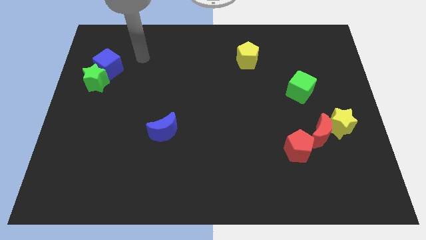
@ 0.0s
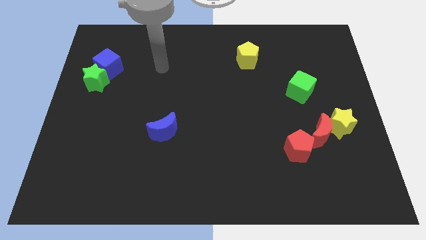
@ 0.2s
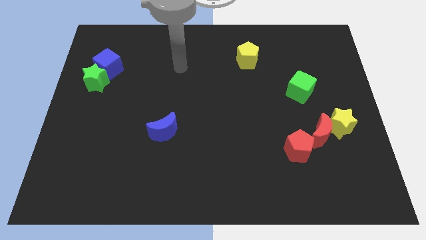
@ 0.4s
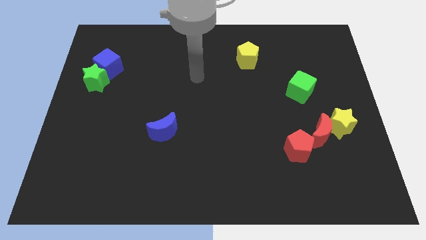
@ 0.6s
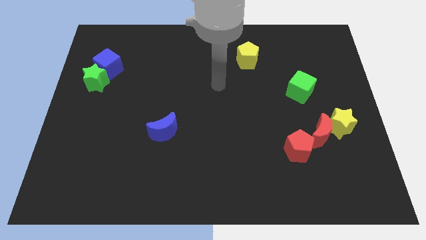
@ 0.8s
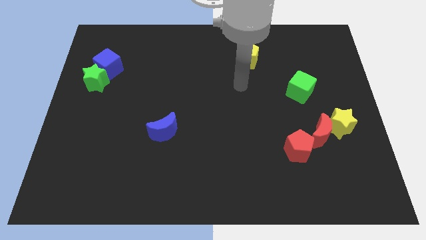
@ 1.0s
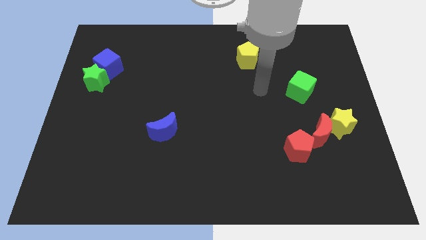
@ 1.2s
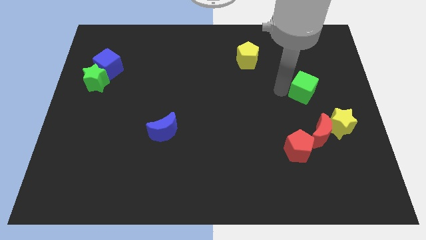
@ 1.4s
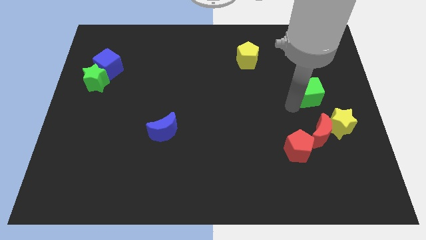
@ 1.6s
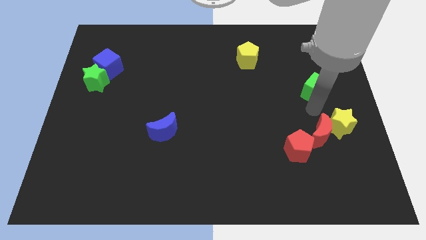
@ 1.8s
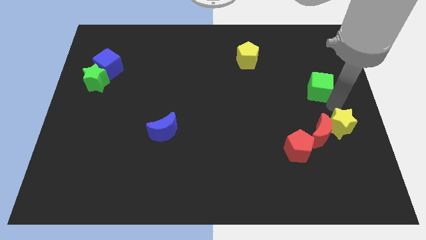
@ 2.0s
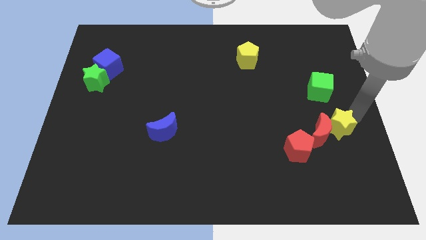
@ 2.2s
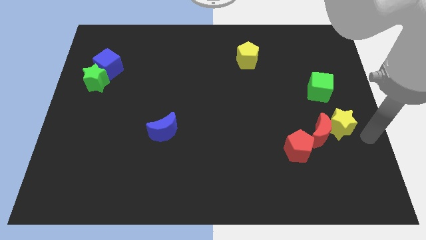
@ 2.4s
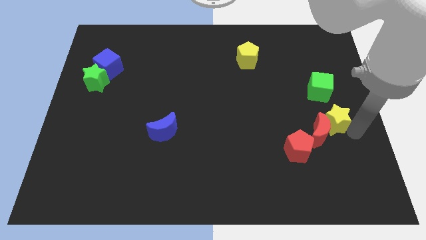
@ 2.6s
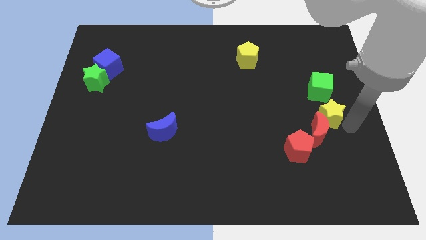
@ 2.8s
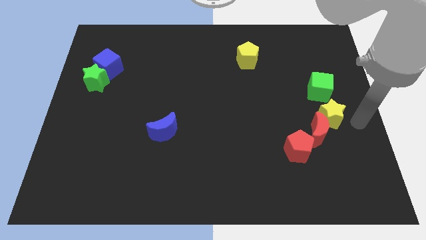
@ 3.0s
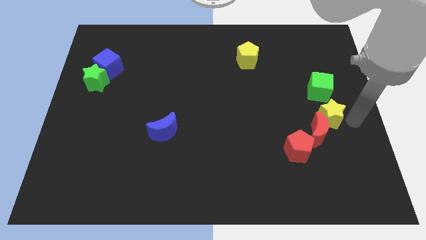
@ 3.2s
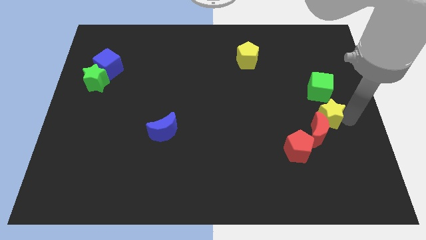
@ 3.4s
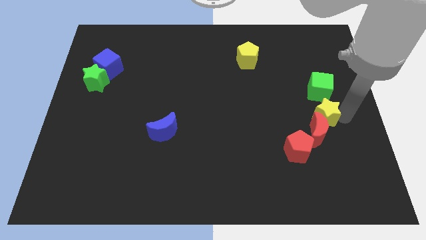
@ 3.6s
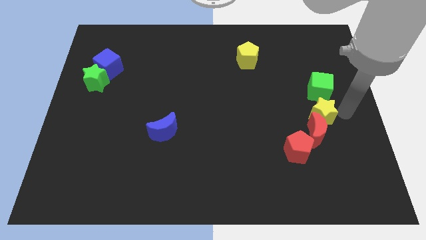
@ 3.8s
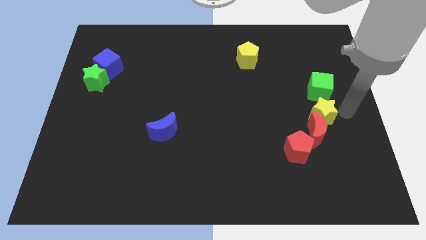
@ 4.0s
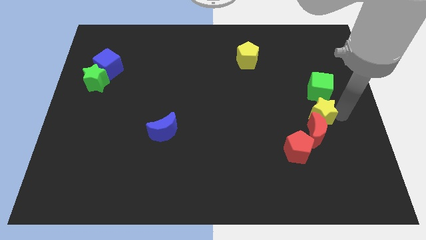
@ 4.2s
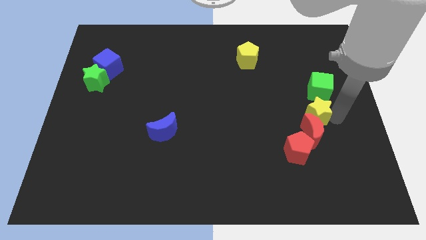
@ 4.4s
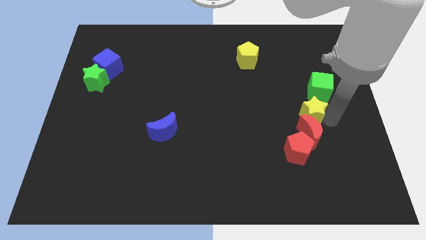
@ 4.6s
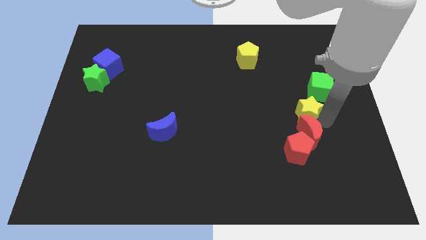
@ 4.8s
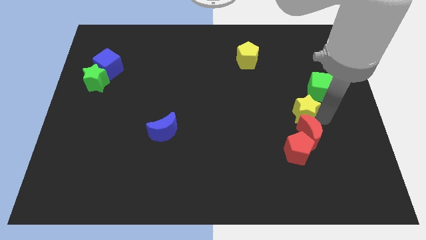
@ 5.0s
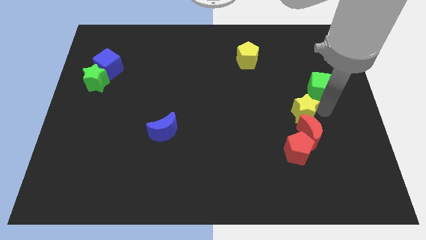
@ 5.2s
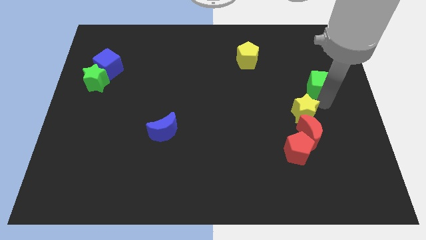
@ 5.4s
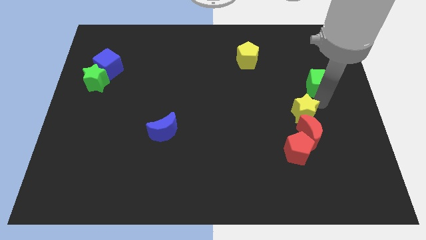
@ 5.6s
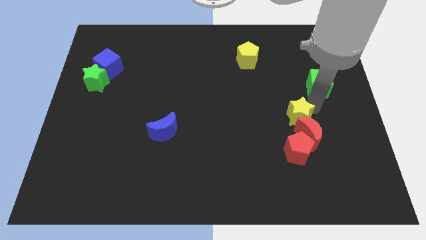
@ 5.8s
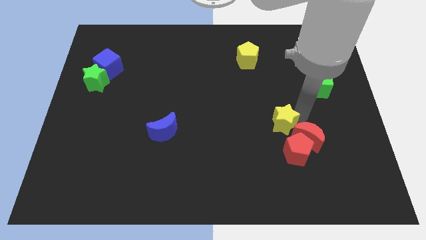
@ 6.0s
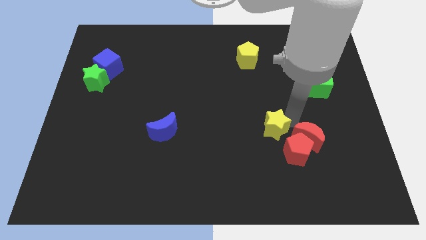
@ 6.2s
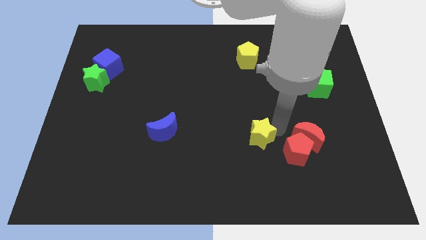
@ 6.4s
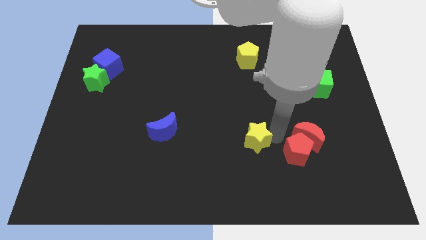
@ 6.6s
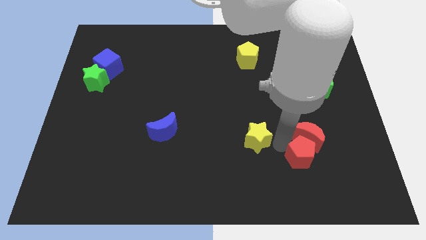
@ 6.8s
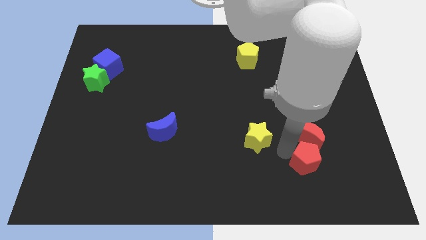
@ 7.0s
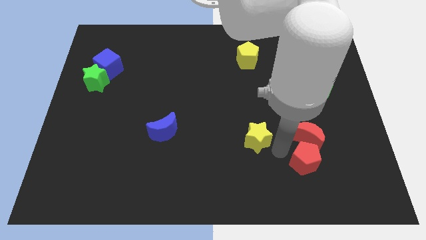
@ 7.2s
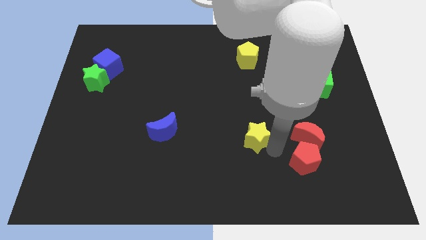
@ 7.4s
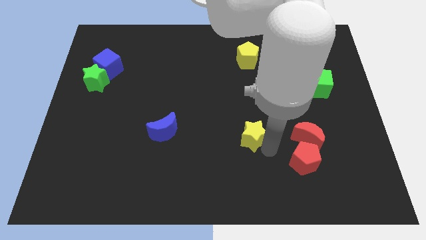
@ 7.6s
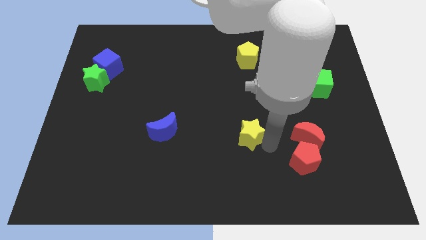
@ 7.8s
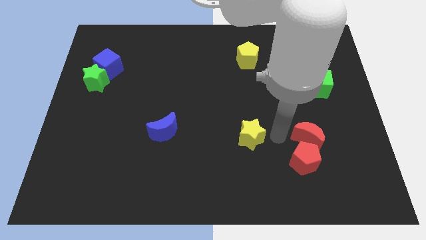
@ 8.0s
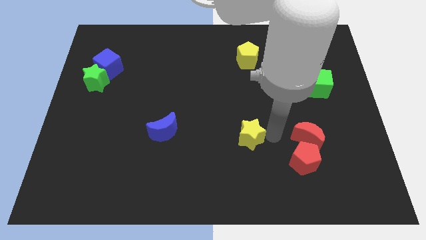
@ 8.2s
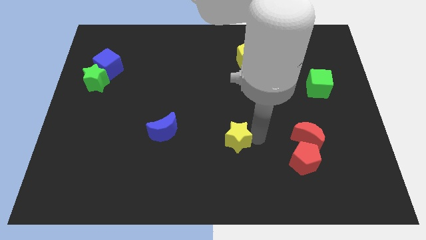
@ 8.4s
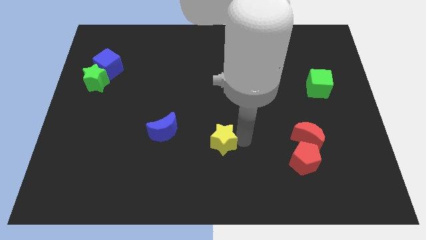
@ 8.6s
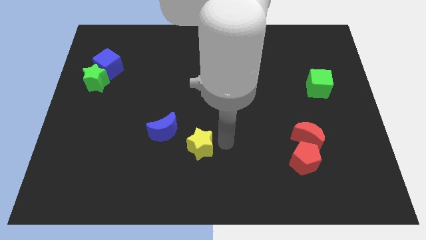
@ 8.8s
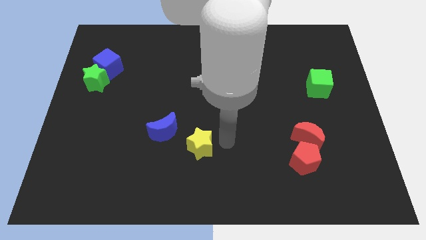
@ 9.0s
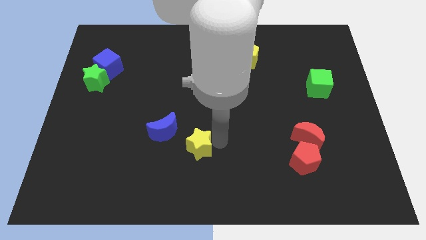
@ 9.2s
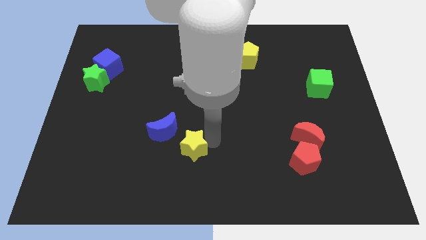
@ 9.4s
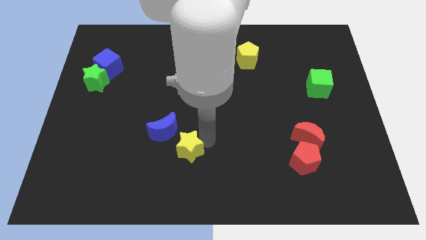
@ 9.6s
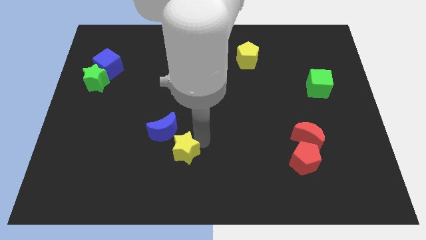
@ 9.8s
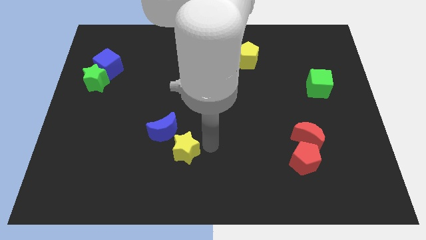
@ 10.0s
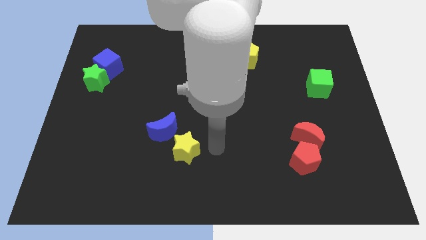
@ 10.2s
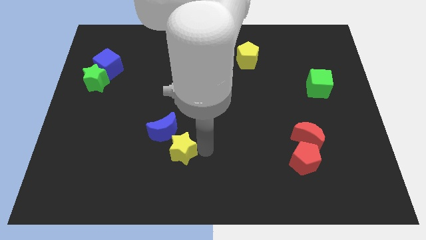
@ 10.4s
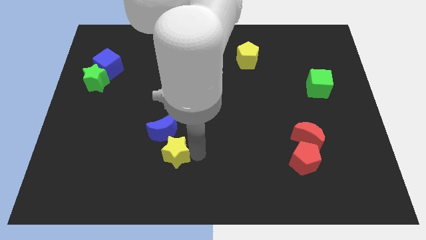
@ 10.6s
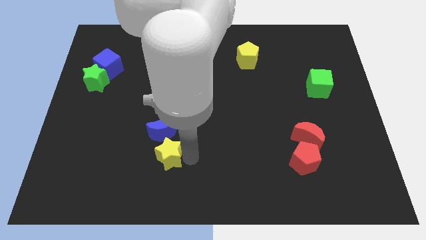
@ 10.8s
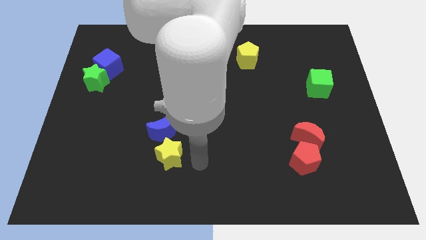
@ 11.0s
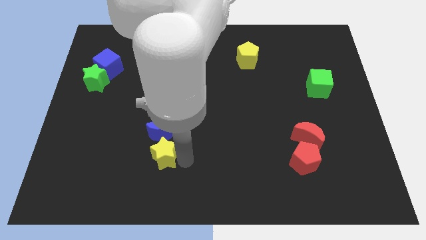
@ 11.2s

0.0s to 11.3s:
move the yellow star diagonally down and to the left of the blue moon

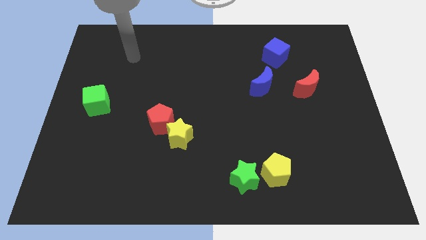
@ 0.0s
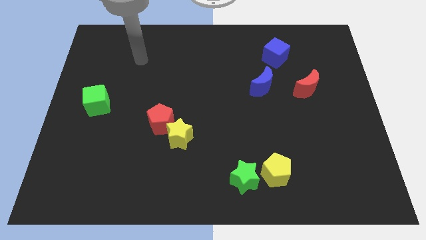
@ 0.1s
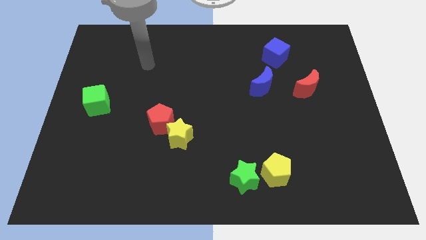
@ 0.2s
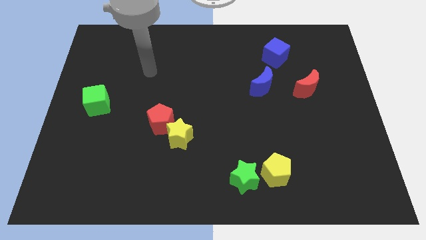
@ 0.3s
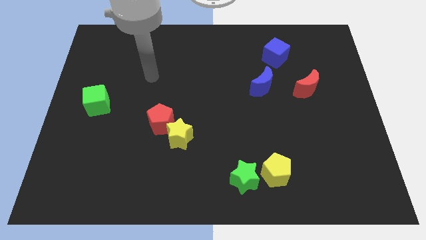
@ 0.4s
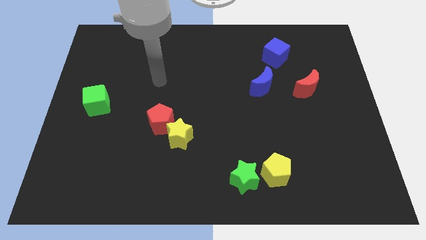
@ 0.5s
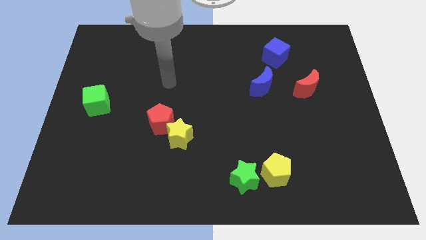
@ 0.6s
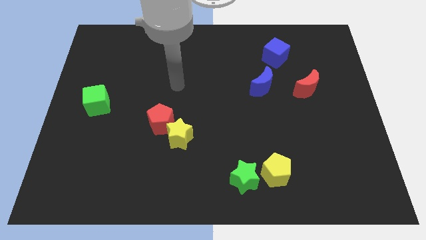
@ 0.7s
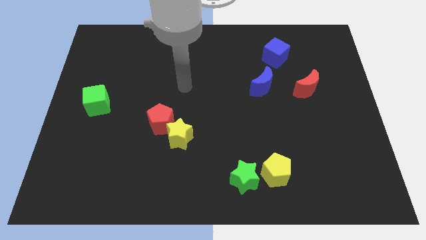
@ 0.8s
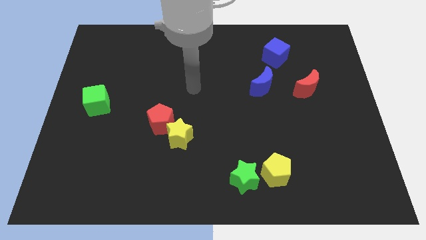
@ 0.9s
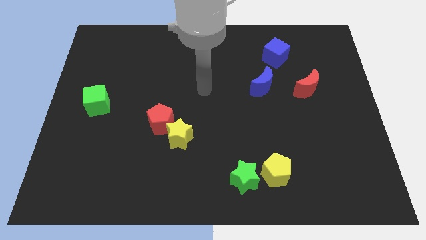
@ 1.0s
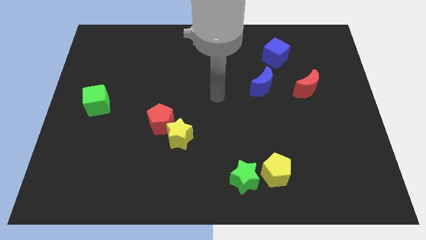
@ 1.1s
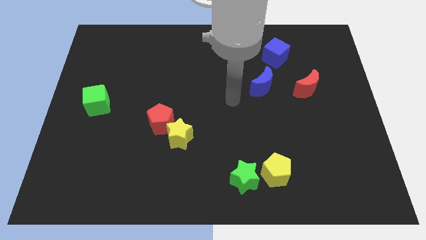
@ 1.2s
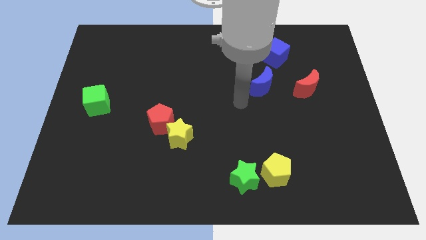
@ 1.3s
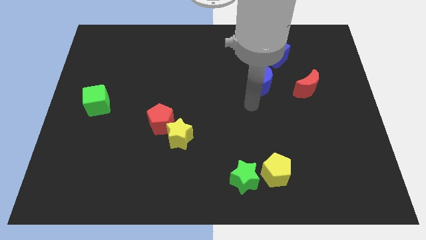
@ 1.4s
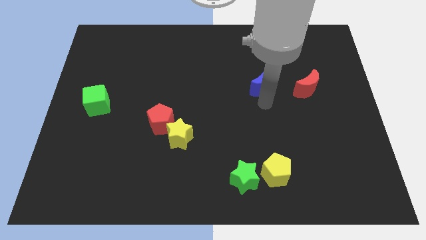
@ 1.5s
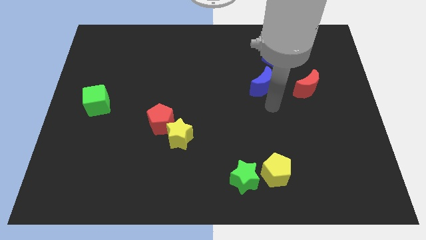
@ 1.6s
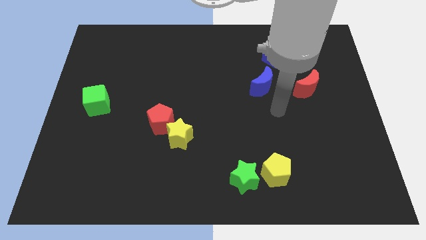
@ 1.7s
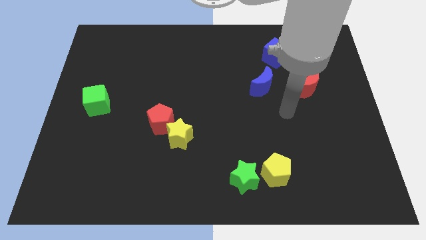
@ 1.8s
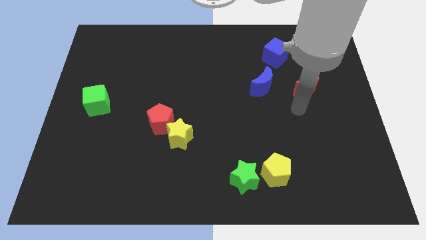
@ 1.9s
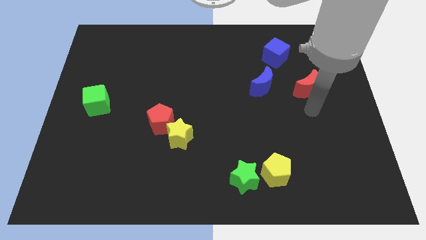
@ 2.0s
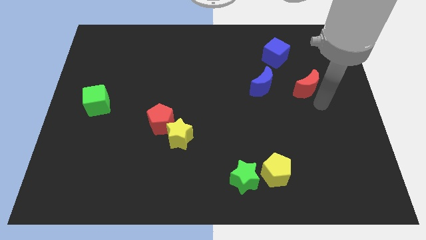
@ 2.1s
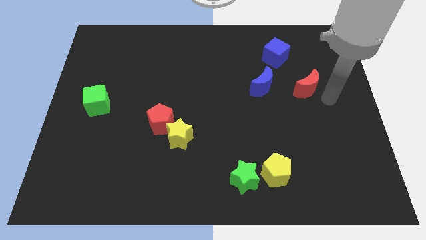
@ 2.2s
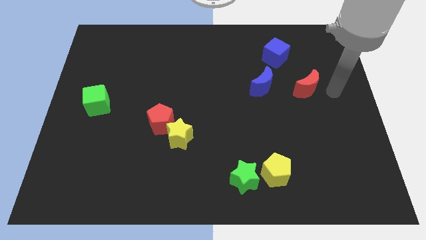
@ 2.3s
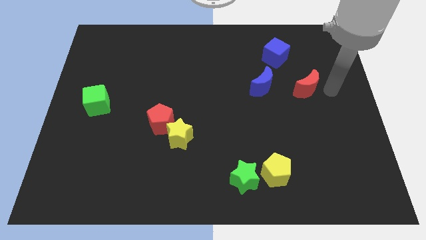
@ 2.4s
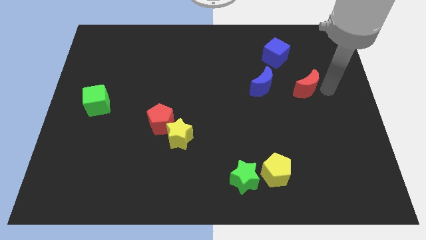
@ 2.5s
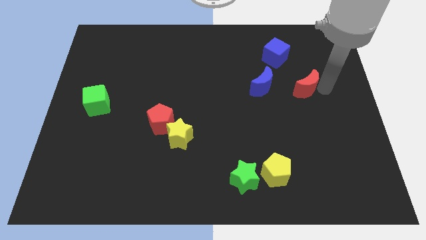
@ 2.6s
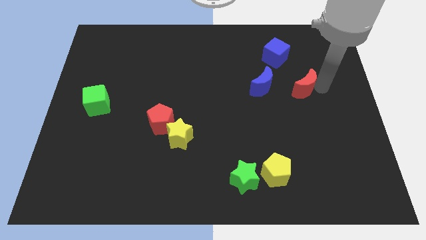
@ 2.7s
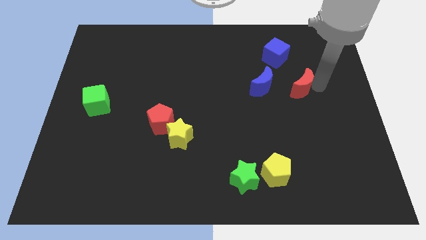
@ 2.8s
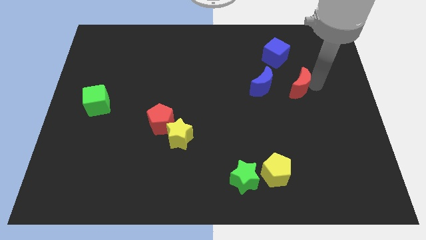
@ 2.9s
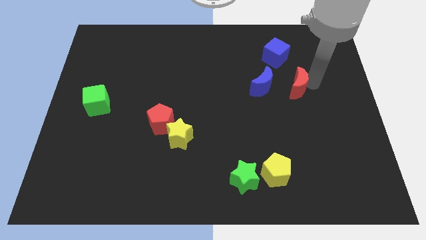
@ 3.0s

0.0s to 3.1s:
move the red moon below the blue cube
